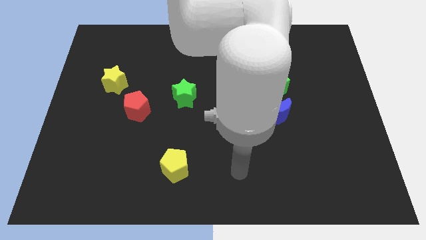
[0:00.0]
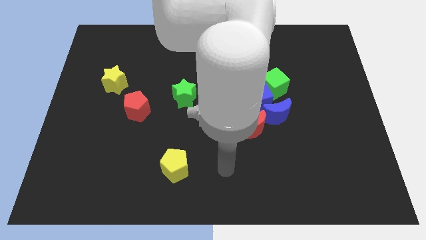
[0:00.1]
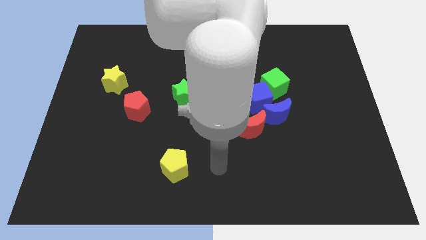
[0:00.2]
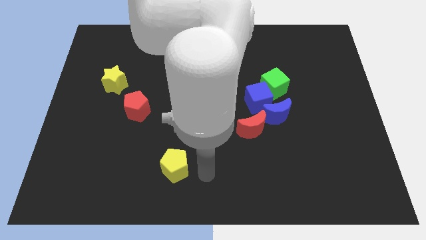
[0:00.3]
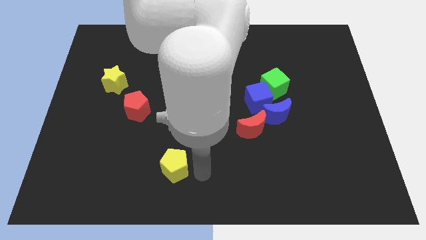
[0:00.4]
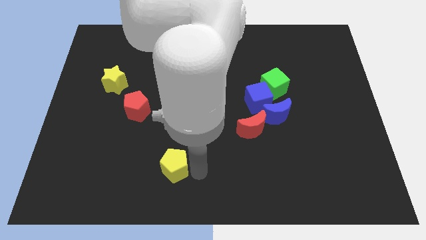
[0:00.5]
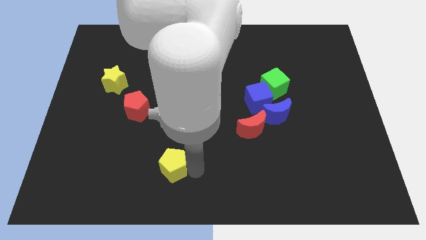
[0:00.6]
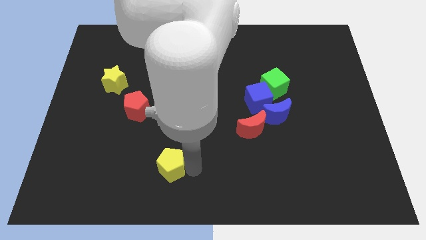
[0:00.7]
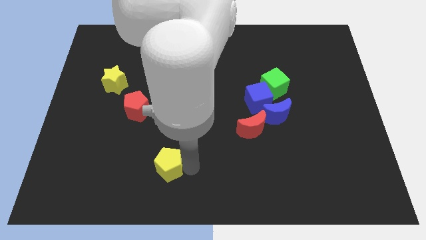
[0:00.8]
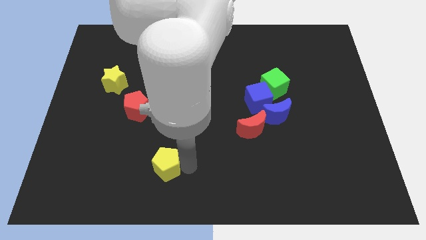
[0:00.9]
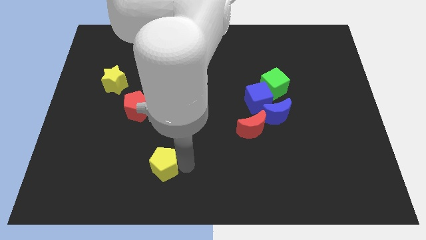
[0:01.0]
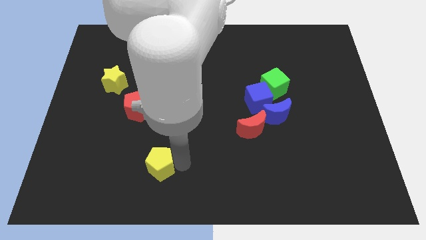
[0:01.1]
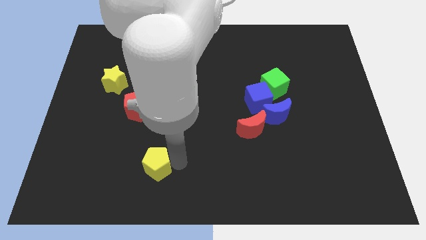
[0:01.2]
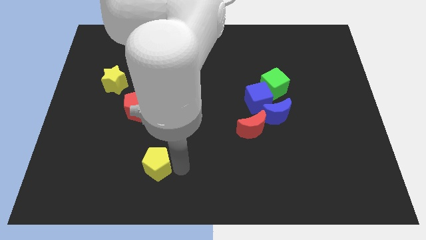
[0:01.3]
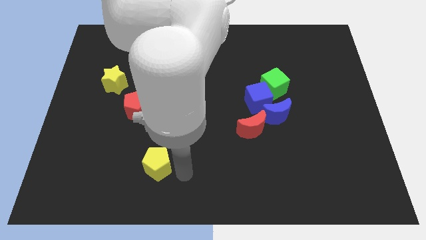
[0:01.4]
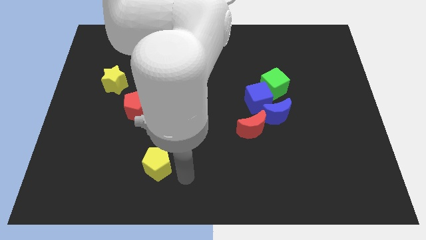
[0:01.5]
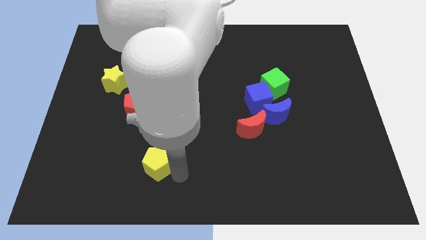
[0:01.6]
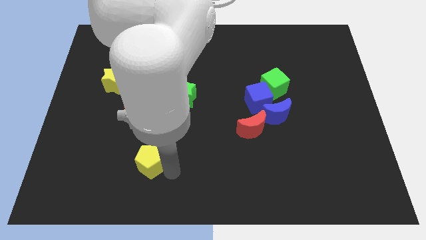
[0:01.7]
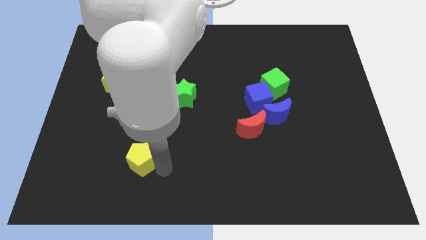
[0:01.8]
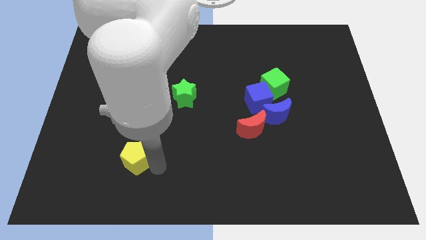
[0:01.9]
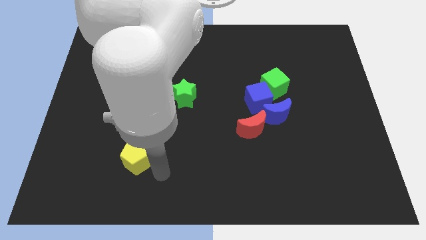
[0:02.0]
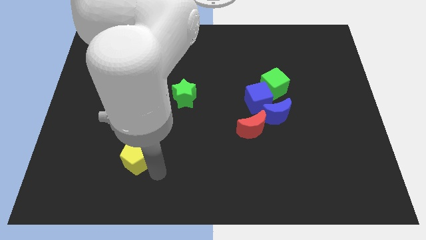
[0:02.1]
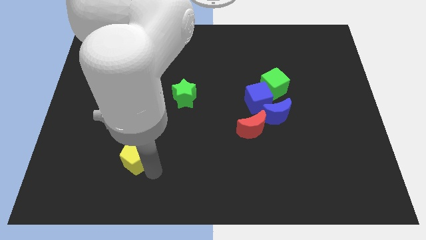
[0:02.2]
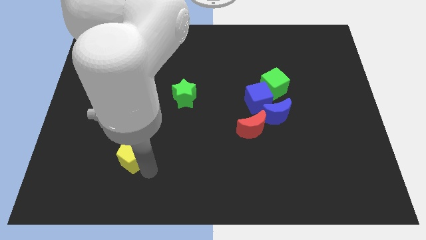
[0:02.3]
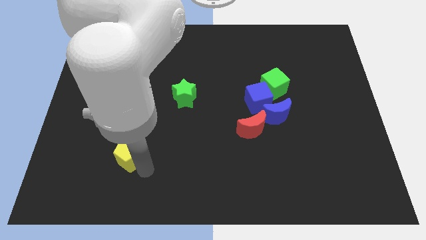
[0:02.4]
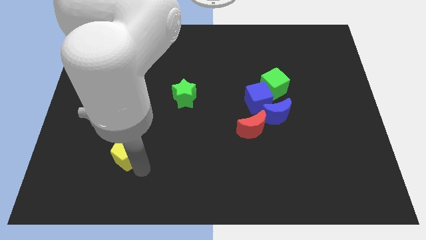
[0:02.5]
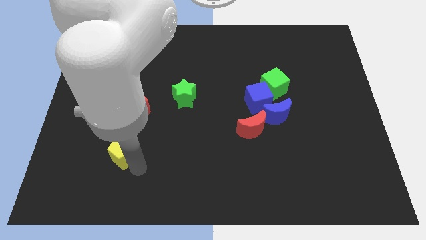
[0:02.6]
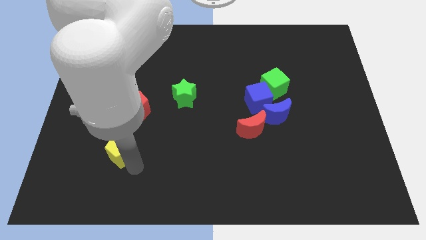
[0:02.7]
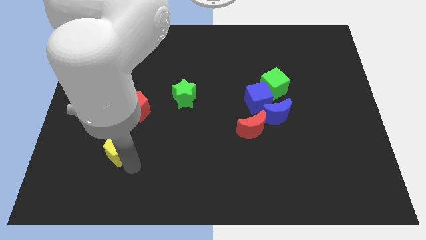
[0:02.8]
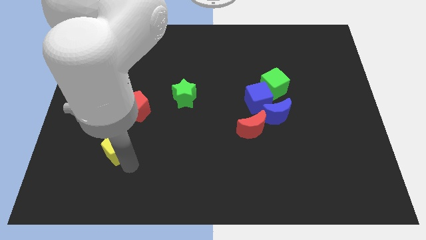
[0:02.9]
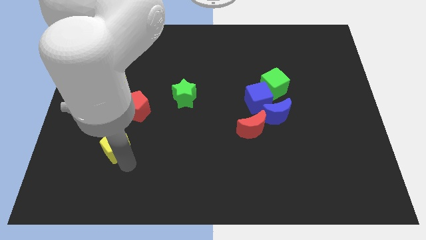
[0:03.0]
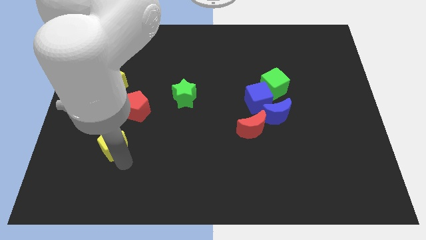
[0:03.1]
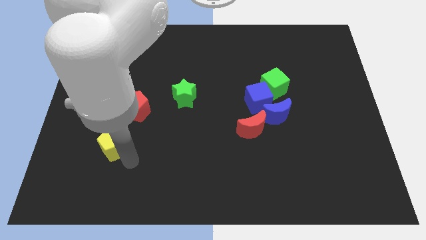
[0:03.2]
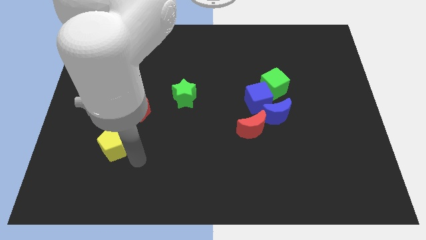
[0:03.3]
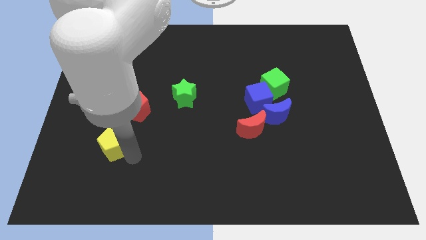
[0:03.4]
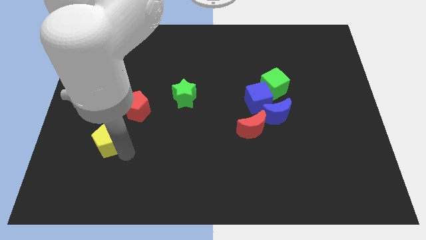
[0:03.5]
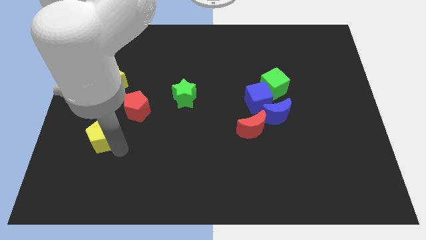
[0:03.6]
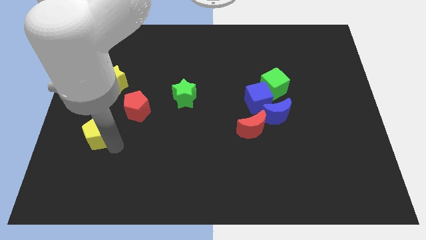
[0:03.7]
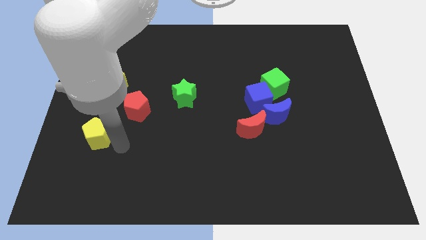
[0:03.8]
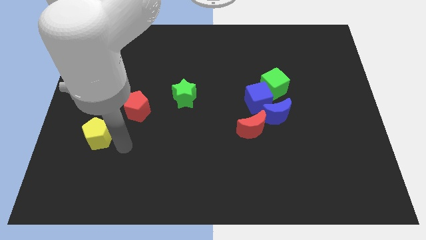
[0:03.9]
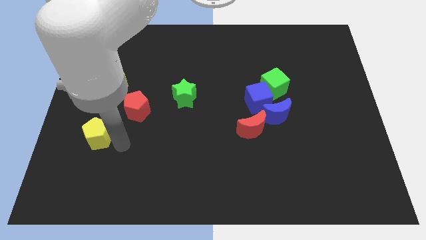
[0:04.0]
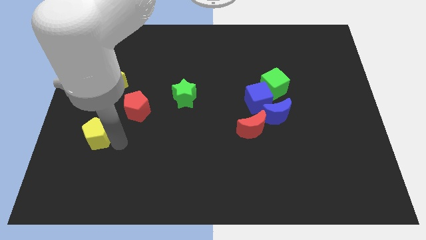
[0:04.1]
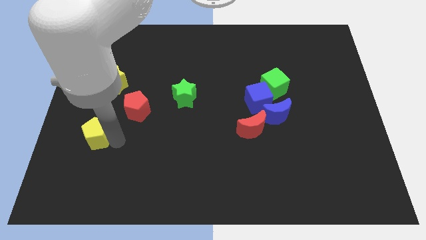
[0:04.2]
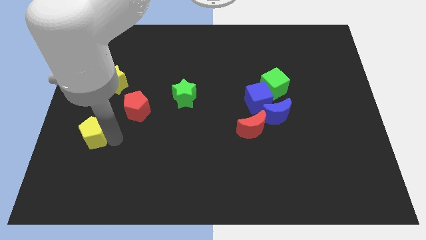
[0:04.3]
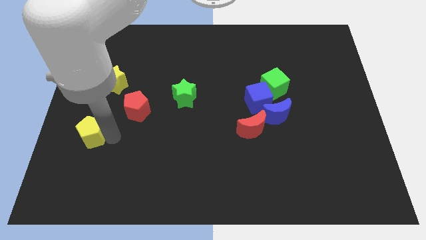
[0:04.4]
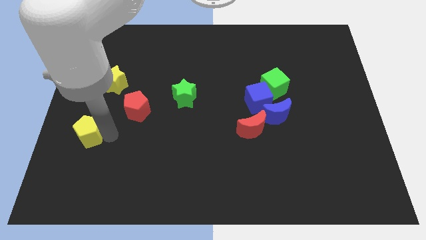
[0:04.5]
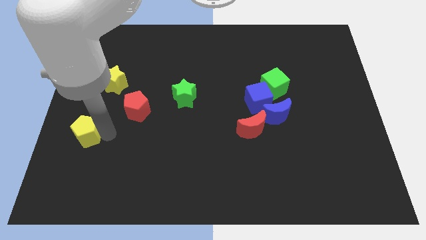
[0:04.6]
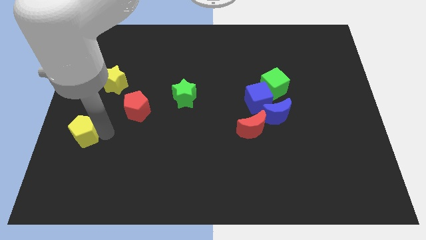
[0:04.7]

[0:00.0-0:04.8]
move the yellow pentagon to the center left

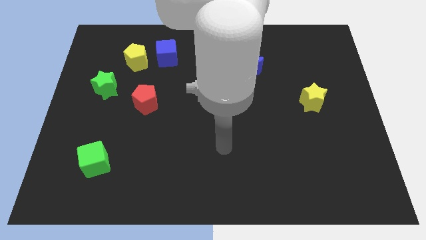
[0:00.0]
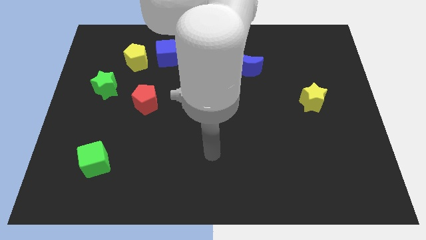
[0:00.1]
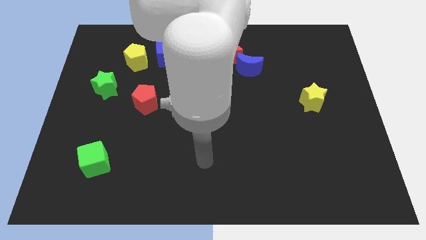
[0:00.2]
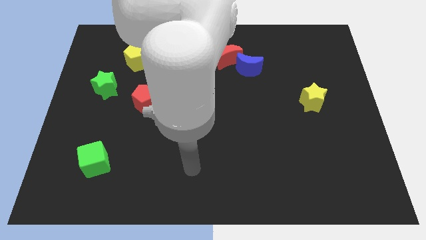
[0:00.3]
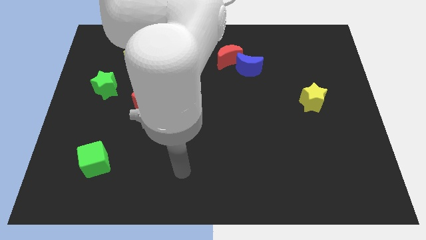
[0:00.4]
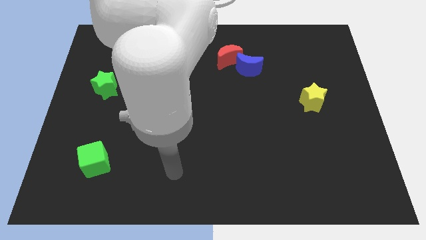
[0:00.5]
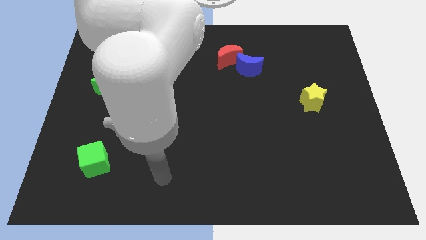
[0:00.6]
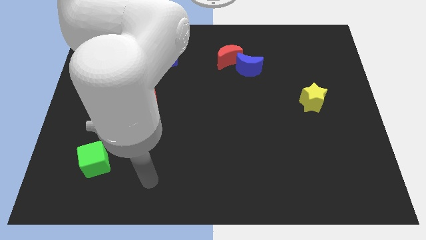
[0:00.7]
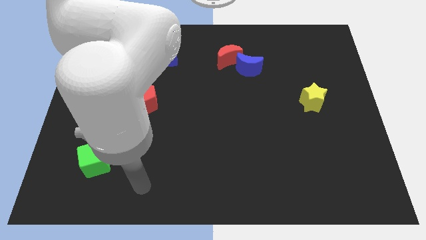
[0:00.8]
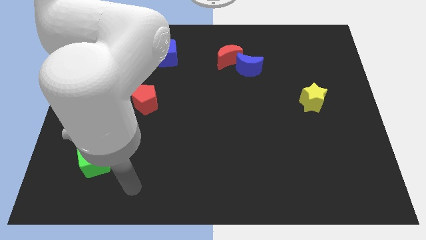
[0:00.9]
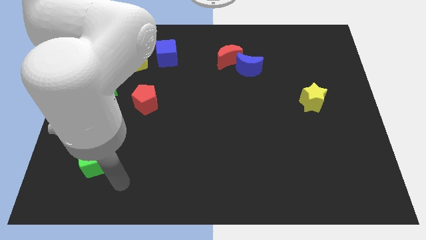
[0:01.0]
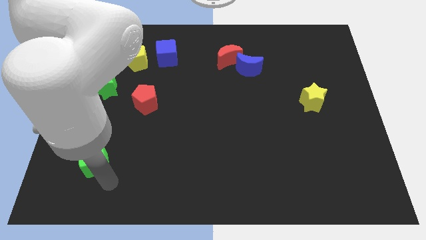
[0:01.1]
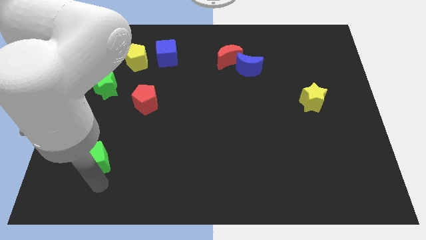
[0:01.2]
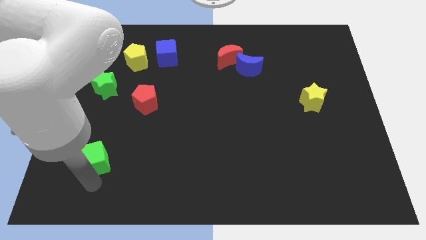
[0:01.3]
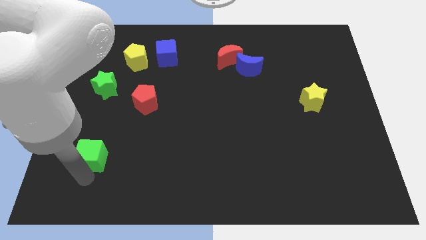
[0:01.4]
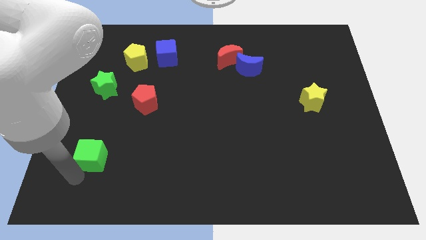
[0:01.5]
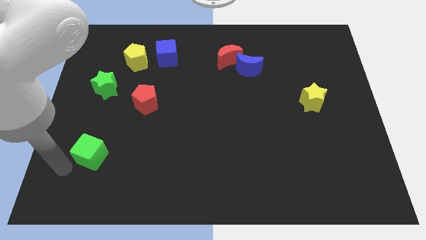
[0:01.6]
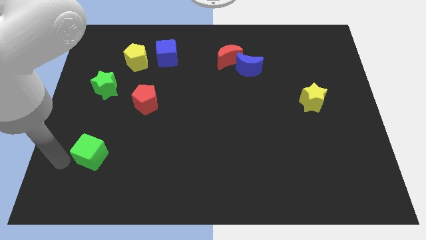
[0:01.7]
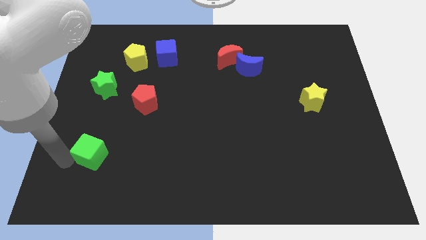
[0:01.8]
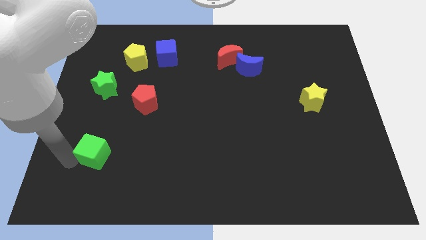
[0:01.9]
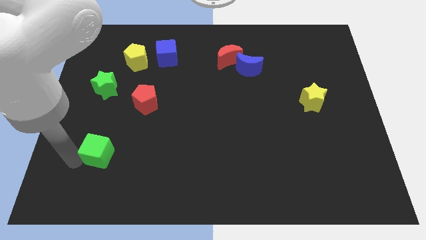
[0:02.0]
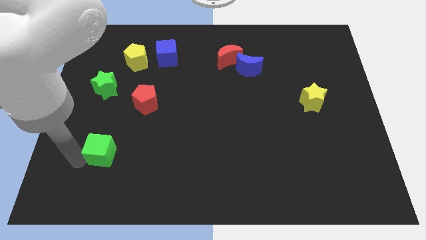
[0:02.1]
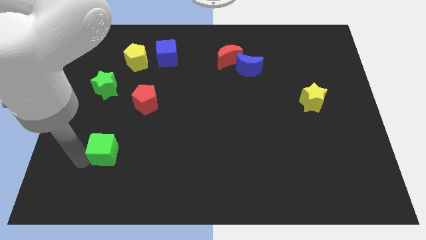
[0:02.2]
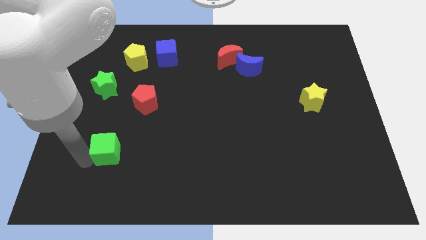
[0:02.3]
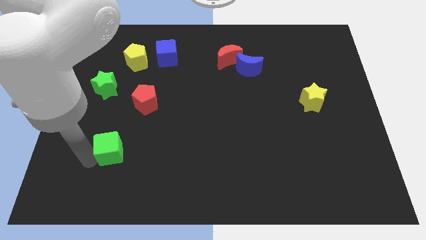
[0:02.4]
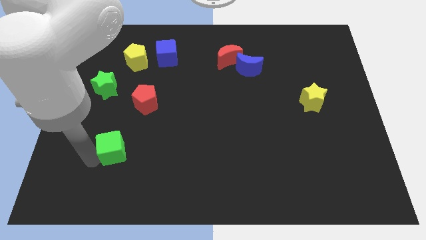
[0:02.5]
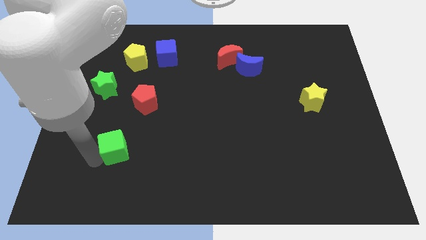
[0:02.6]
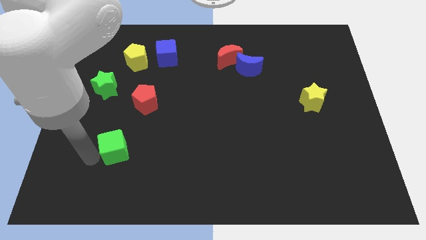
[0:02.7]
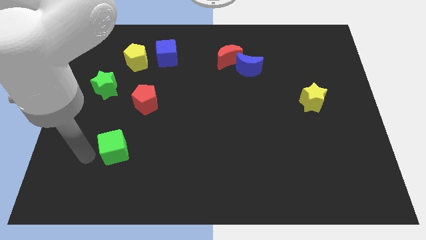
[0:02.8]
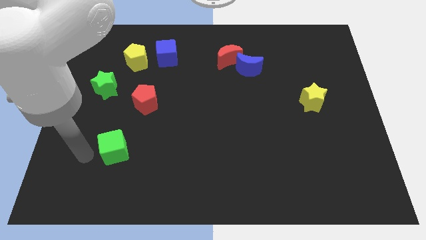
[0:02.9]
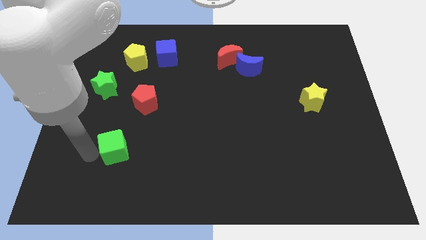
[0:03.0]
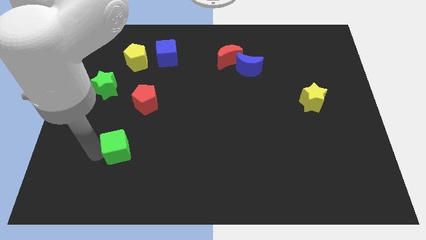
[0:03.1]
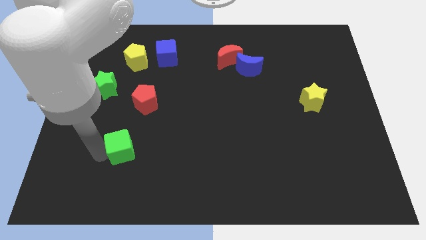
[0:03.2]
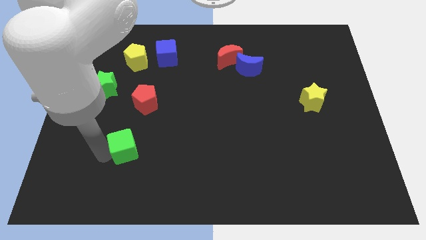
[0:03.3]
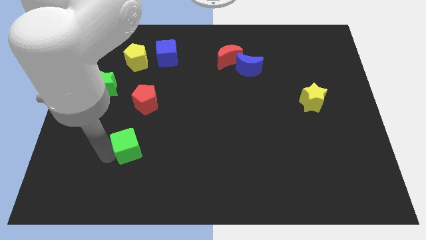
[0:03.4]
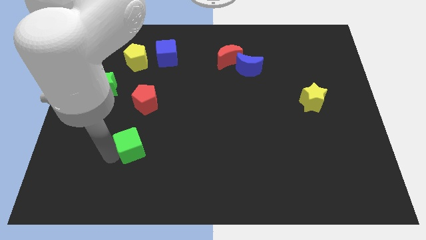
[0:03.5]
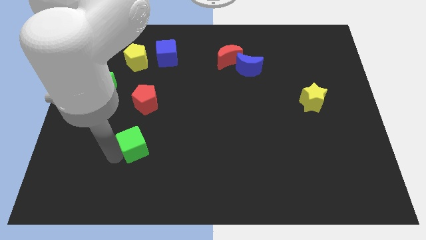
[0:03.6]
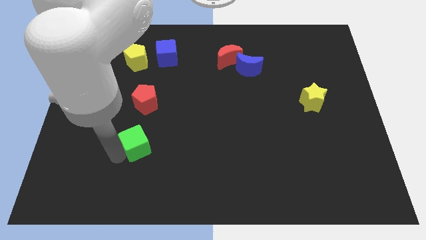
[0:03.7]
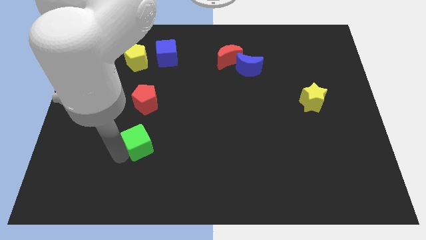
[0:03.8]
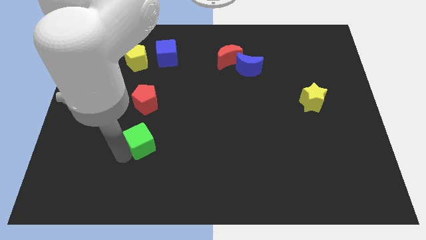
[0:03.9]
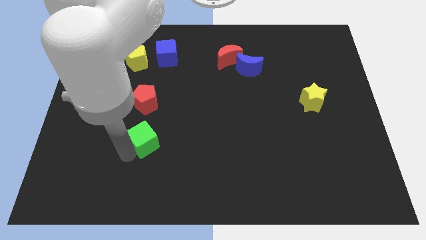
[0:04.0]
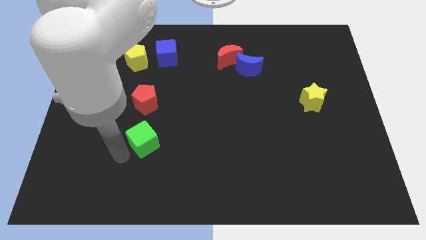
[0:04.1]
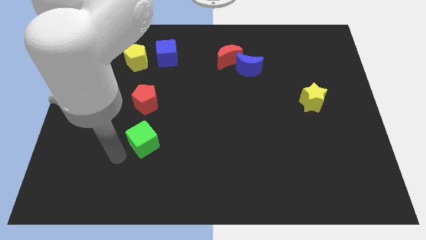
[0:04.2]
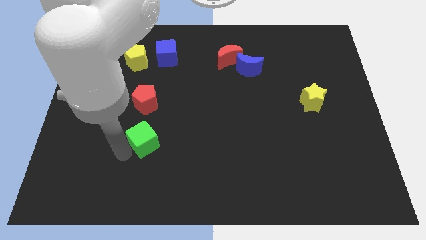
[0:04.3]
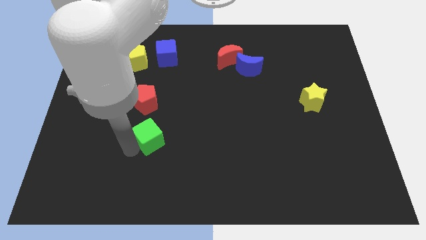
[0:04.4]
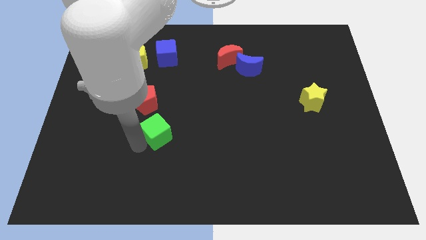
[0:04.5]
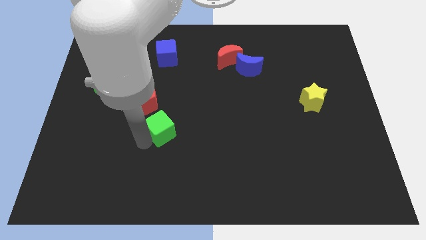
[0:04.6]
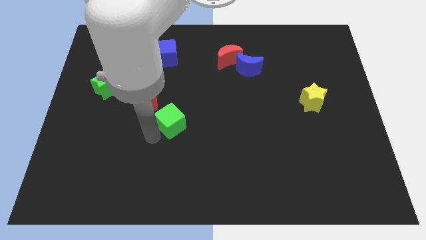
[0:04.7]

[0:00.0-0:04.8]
slide the green cube to the center of the board
